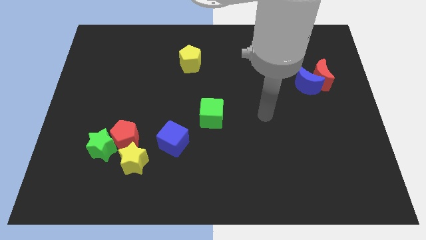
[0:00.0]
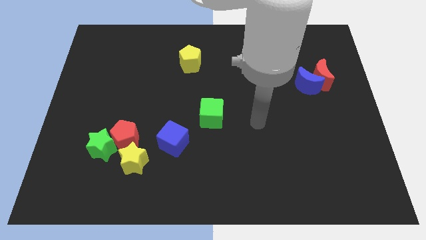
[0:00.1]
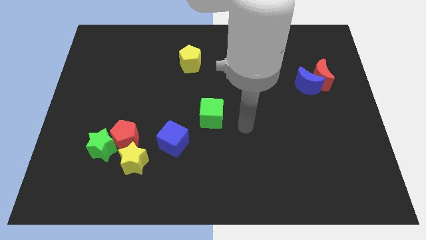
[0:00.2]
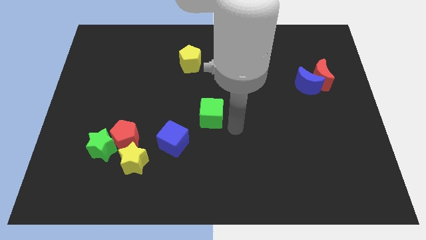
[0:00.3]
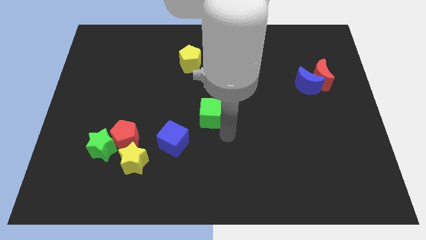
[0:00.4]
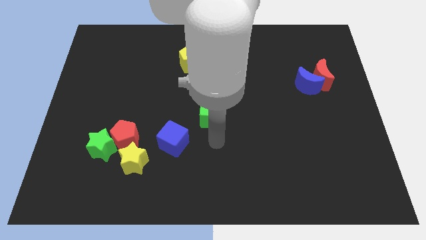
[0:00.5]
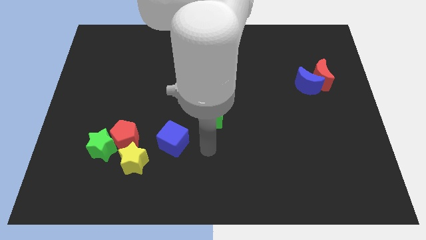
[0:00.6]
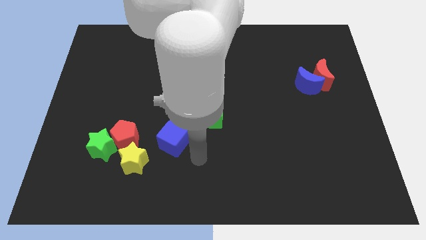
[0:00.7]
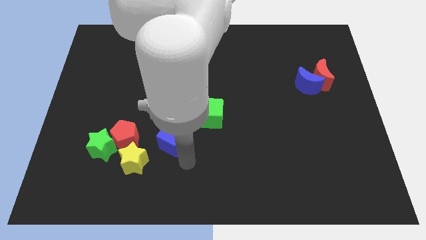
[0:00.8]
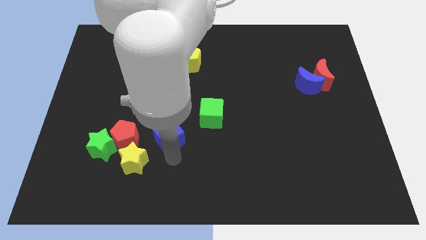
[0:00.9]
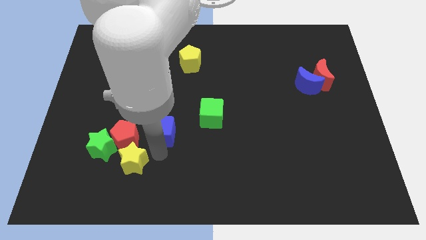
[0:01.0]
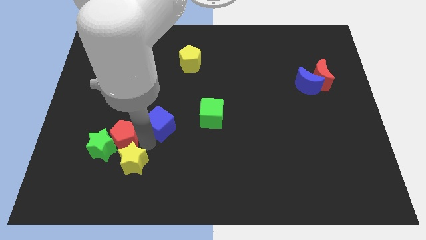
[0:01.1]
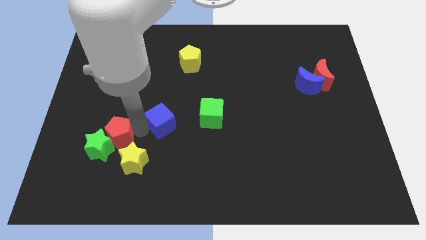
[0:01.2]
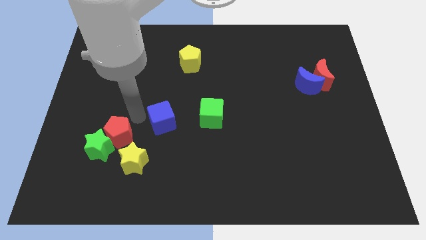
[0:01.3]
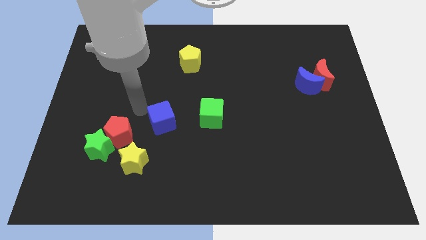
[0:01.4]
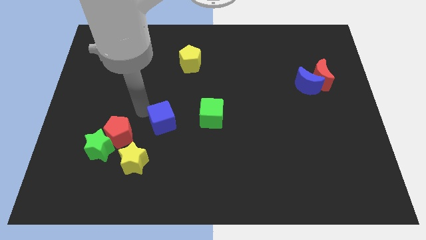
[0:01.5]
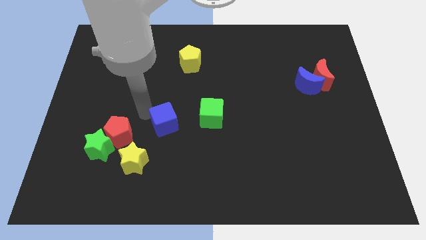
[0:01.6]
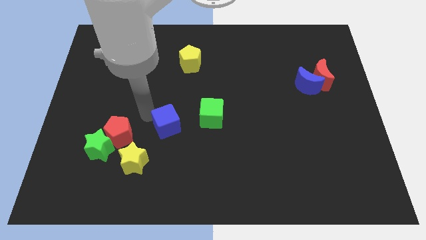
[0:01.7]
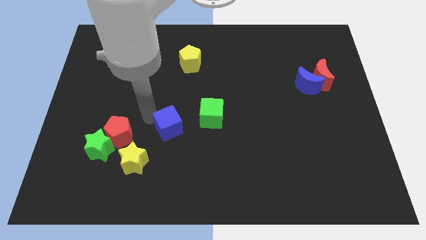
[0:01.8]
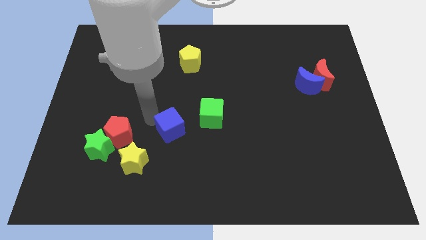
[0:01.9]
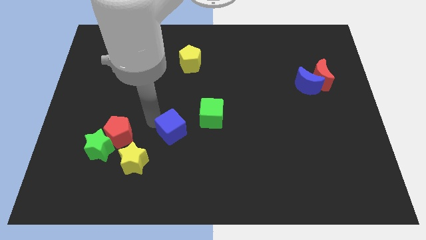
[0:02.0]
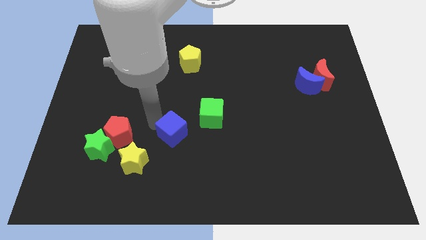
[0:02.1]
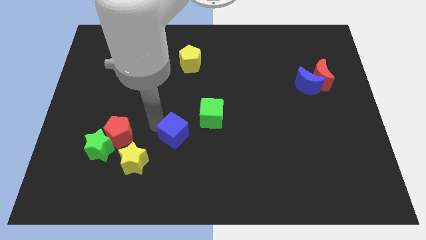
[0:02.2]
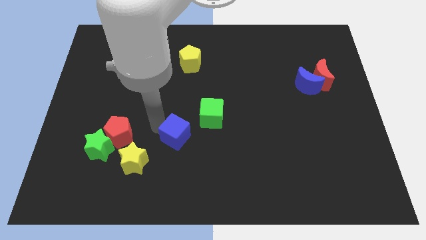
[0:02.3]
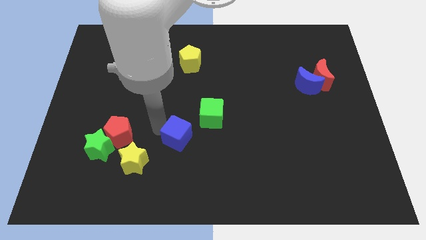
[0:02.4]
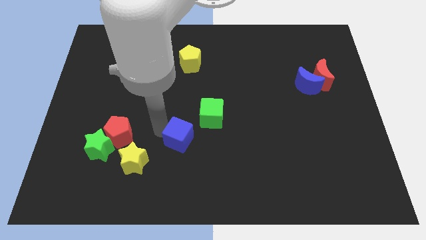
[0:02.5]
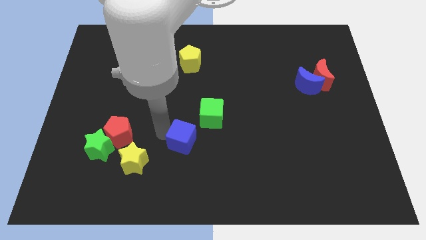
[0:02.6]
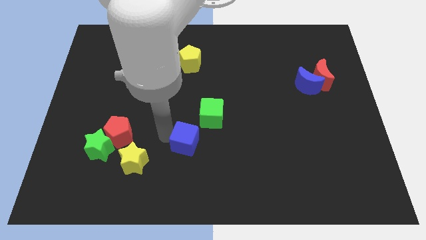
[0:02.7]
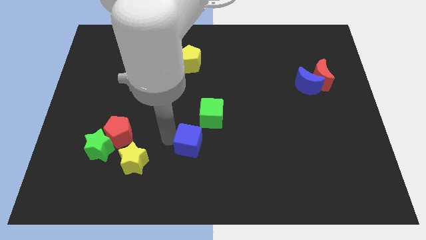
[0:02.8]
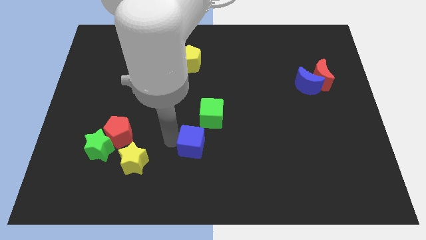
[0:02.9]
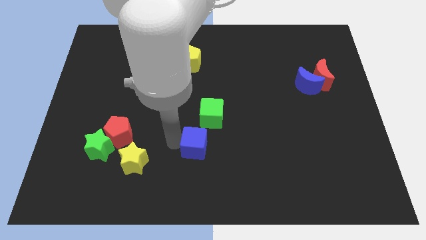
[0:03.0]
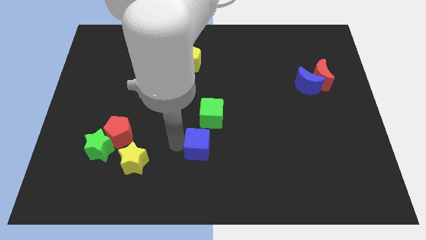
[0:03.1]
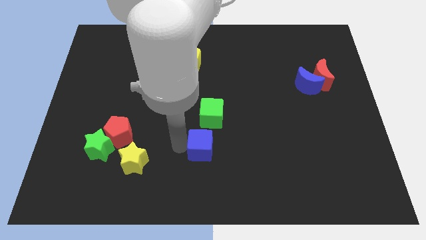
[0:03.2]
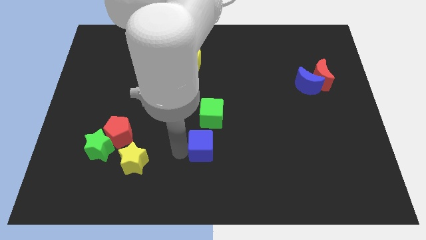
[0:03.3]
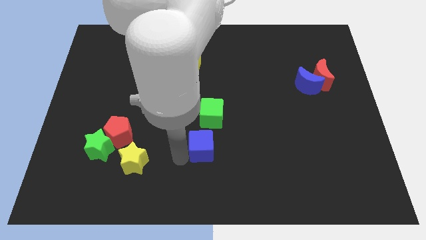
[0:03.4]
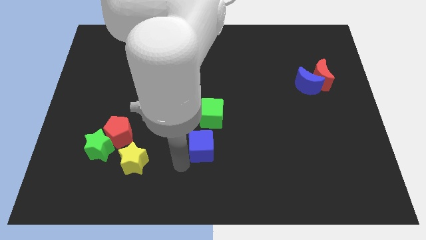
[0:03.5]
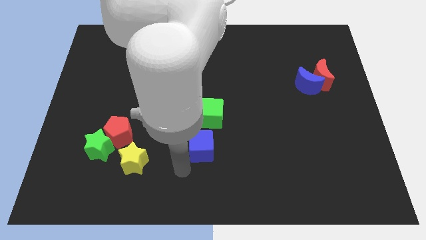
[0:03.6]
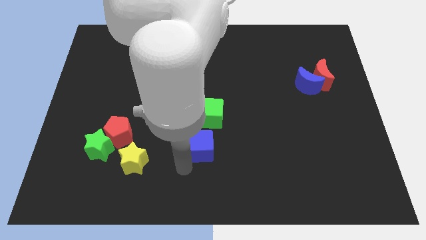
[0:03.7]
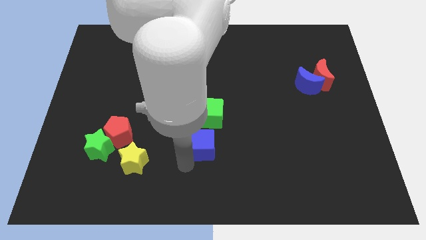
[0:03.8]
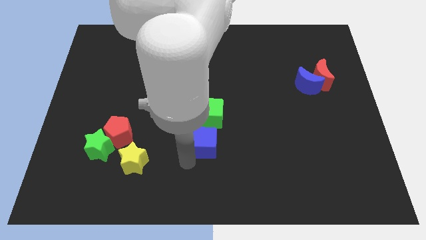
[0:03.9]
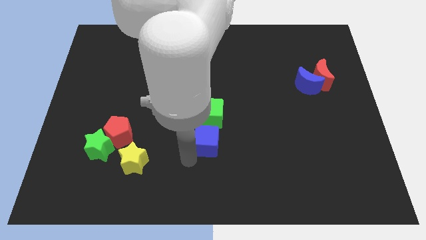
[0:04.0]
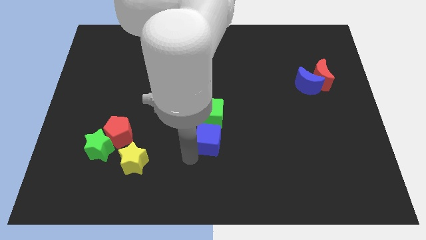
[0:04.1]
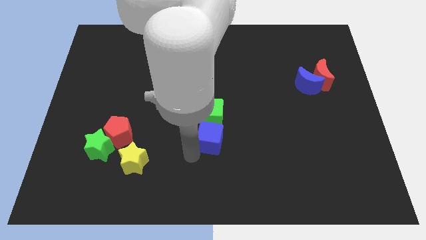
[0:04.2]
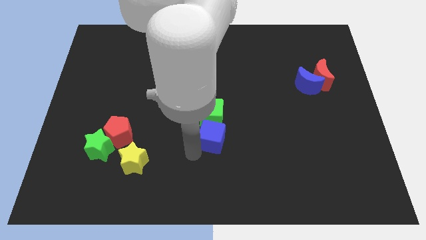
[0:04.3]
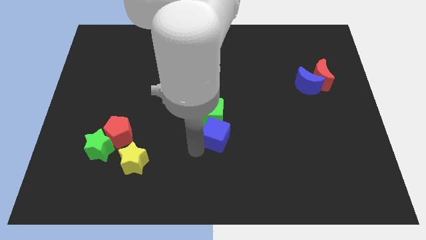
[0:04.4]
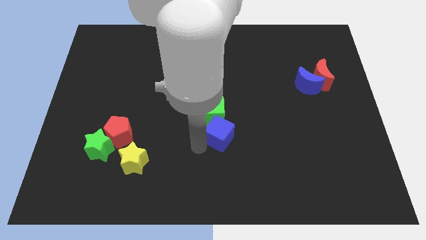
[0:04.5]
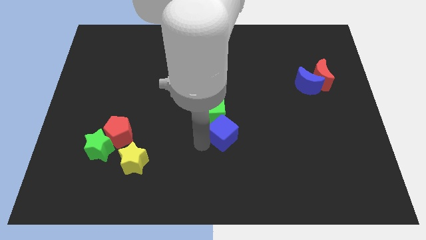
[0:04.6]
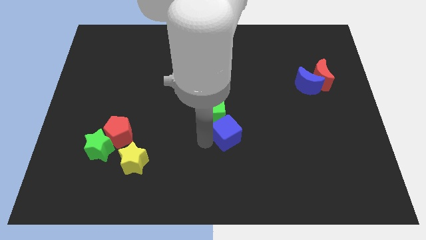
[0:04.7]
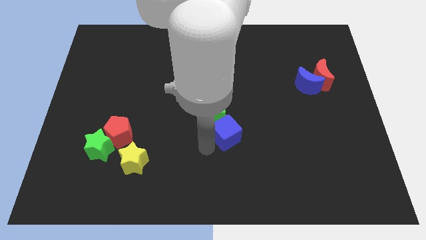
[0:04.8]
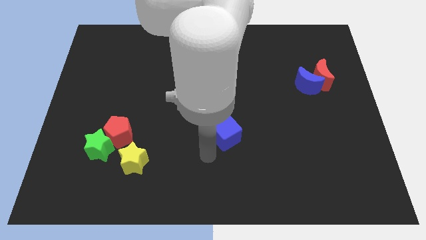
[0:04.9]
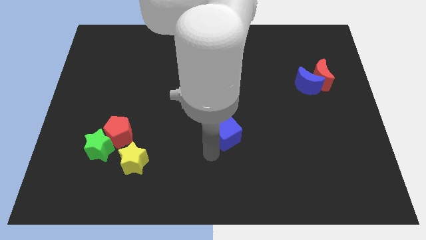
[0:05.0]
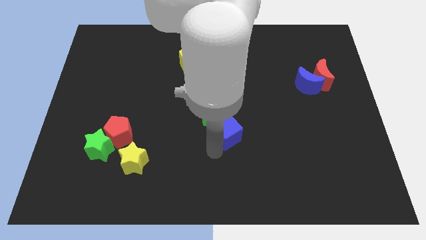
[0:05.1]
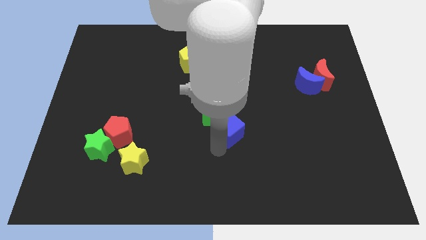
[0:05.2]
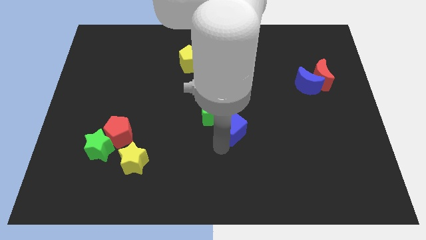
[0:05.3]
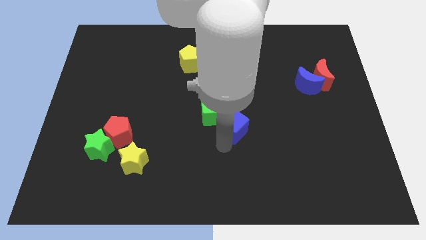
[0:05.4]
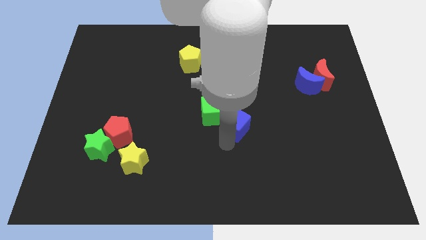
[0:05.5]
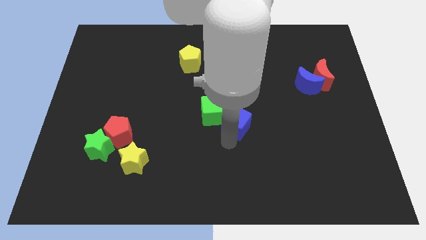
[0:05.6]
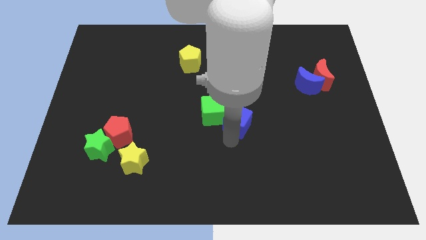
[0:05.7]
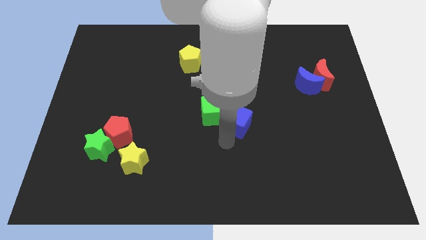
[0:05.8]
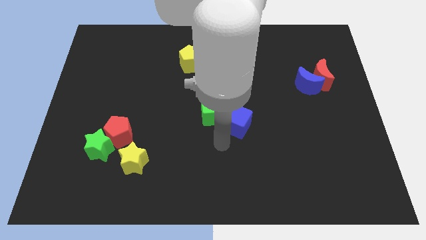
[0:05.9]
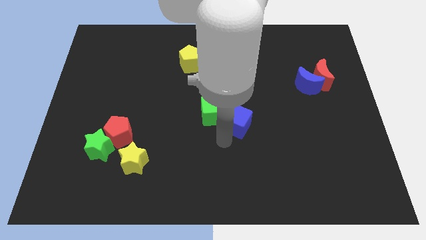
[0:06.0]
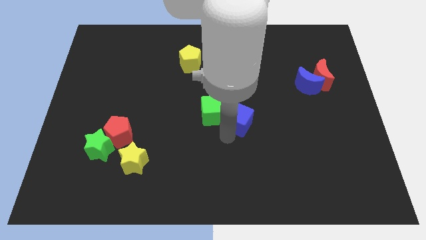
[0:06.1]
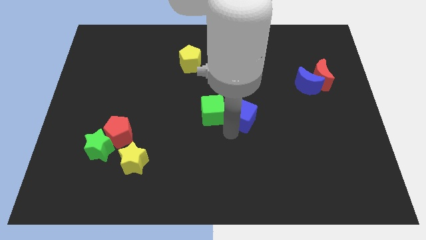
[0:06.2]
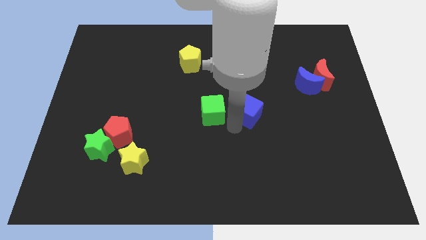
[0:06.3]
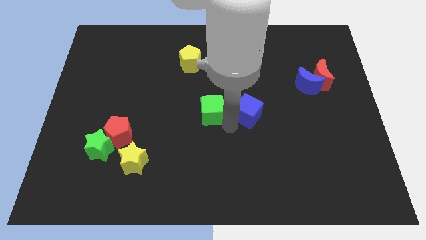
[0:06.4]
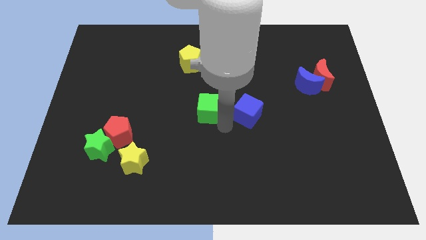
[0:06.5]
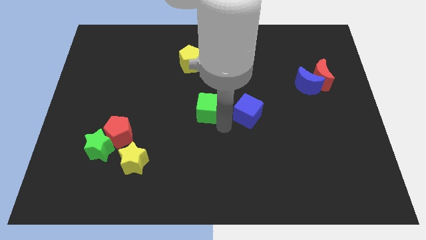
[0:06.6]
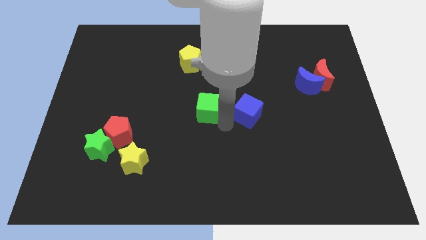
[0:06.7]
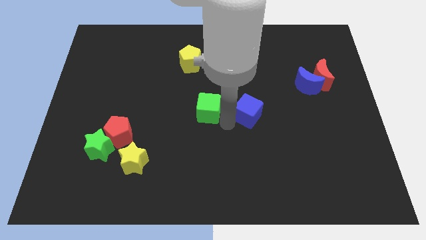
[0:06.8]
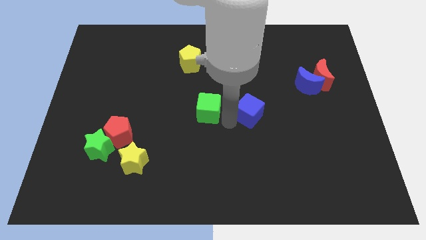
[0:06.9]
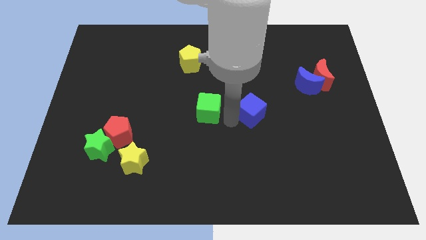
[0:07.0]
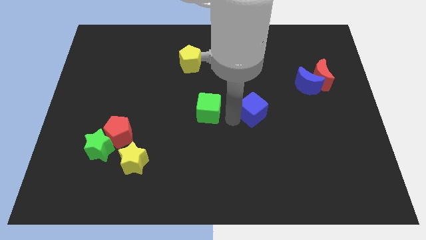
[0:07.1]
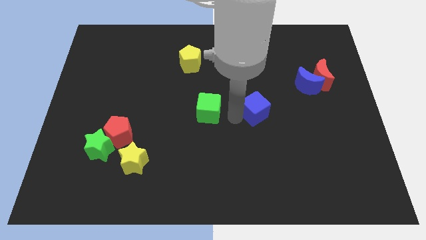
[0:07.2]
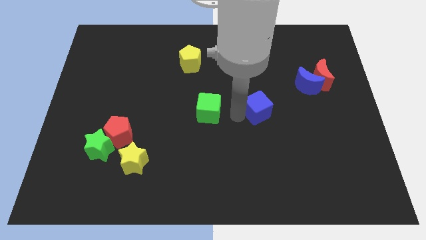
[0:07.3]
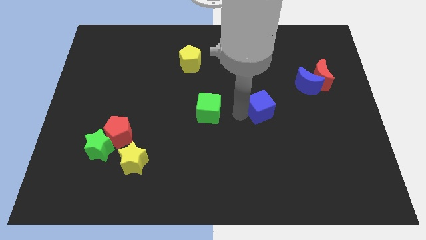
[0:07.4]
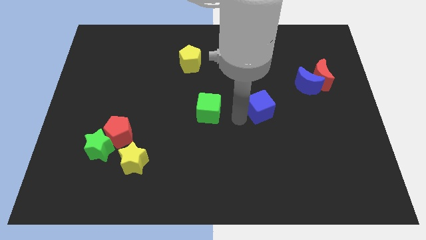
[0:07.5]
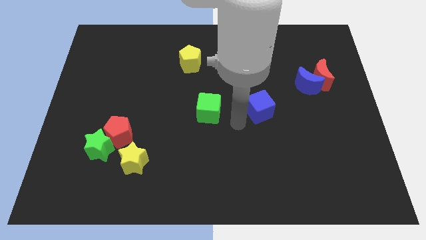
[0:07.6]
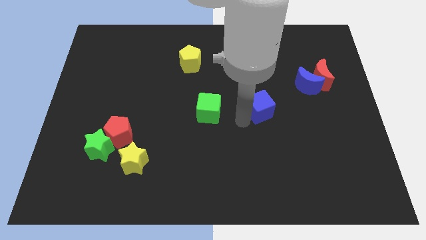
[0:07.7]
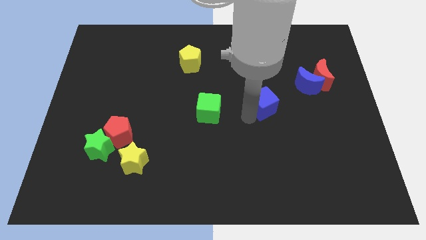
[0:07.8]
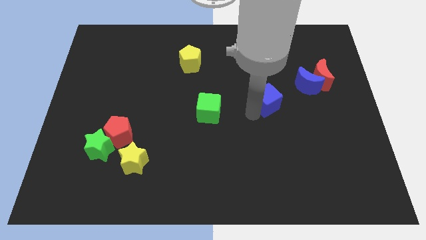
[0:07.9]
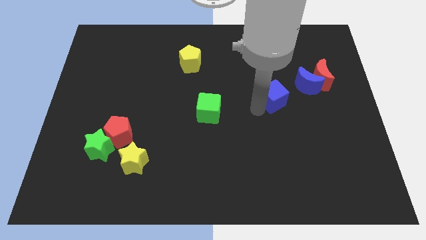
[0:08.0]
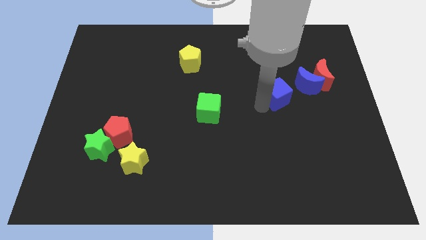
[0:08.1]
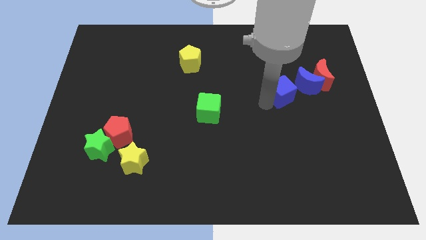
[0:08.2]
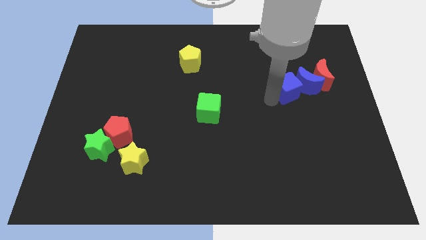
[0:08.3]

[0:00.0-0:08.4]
put the blue cube to the blue moon
